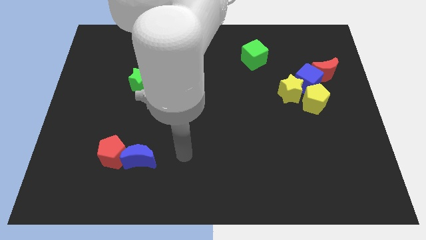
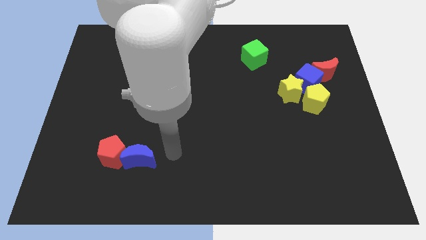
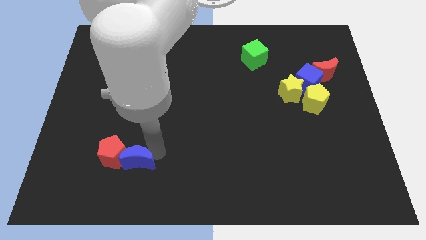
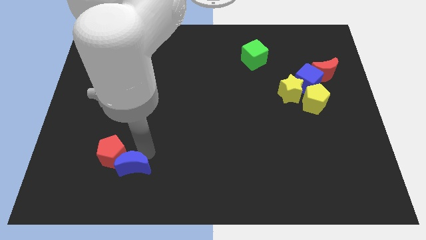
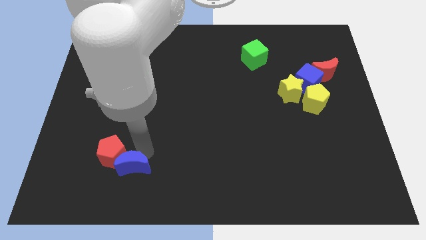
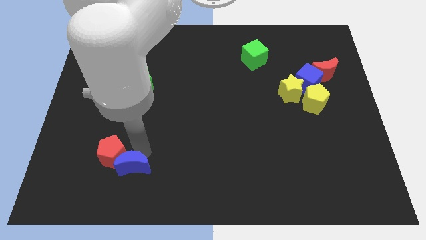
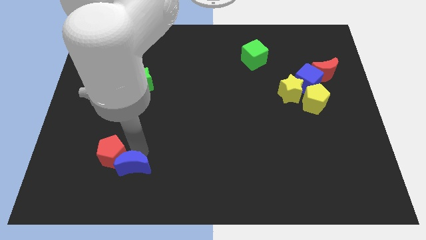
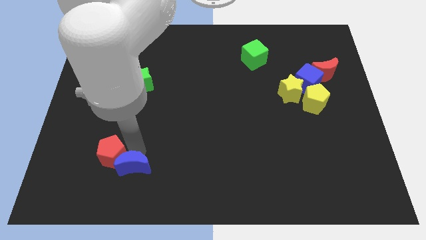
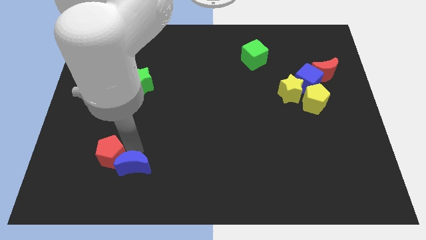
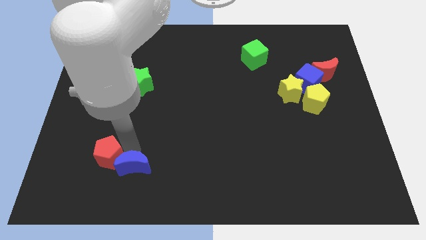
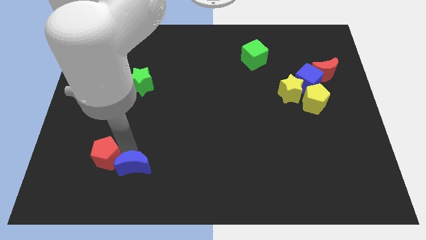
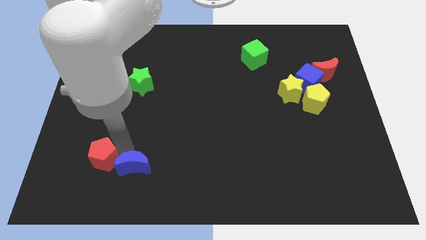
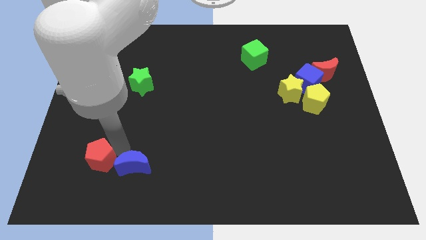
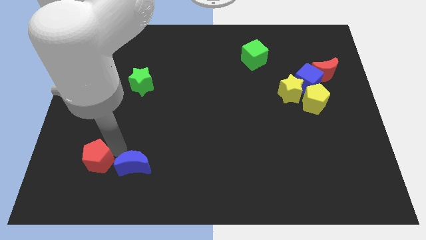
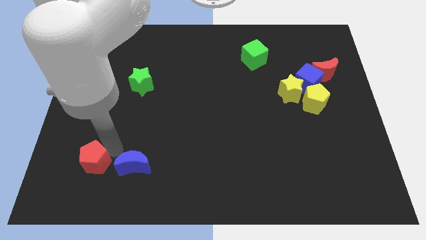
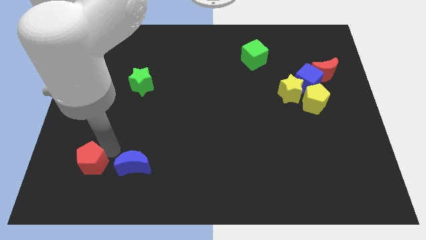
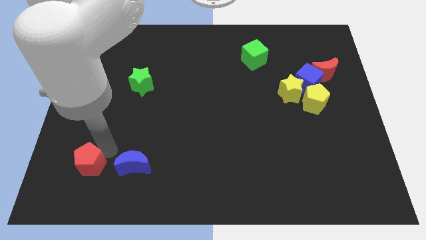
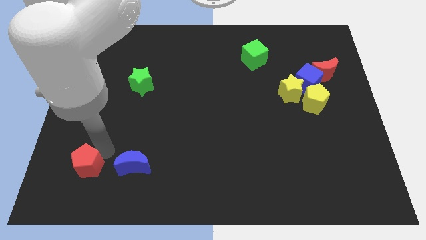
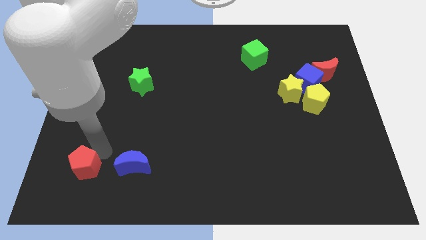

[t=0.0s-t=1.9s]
pull the red pentagon apart from the blue moon

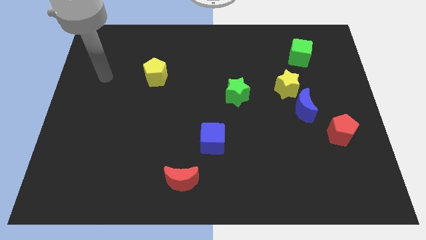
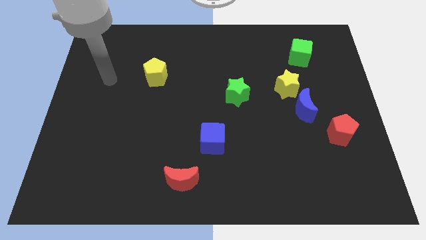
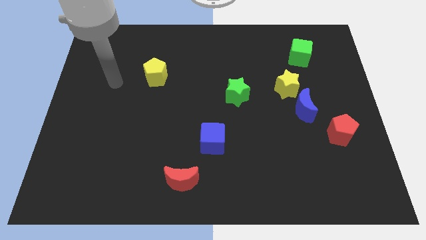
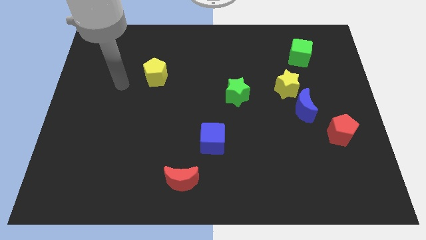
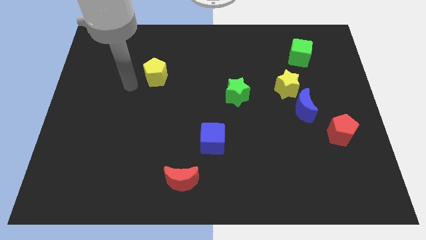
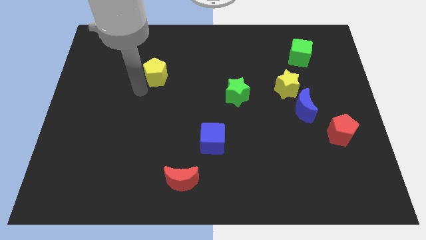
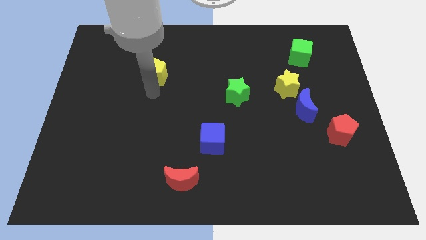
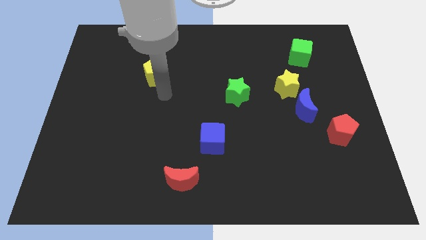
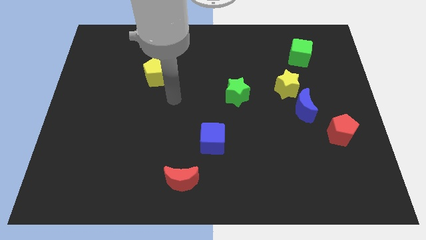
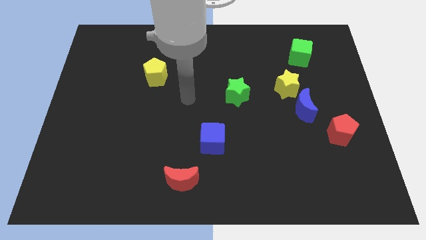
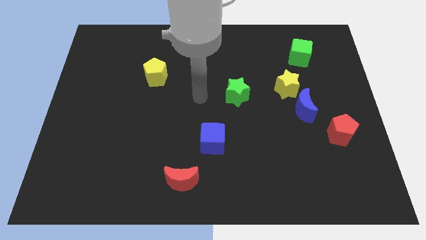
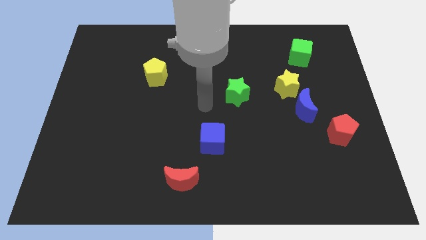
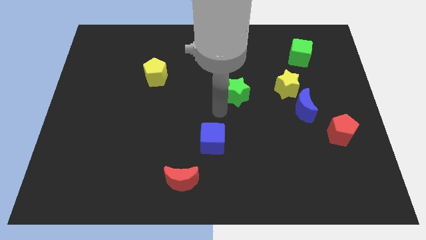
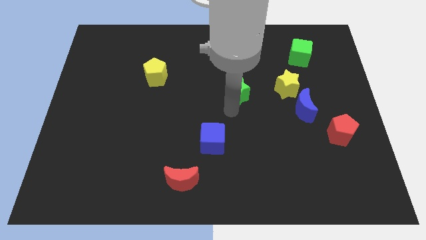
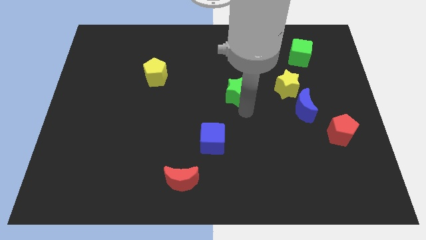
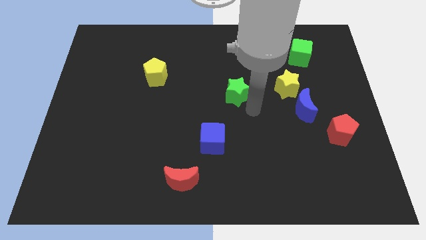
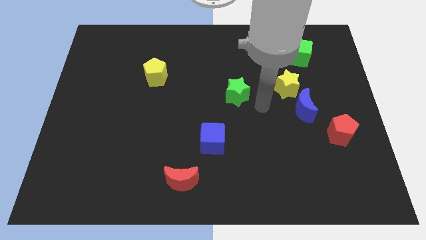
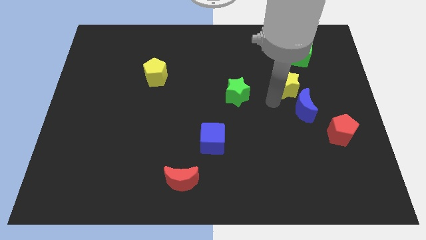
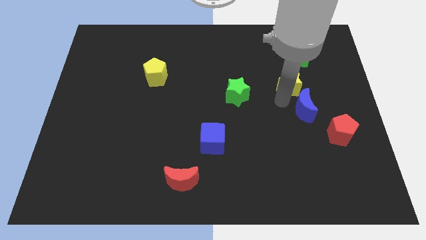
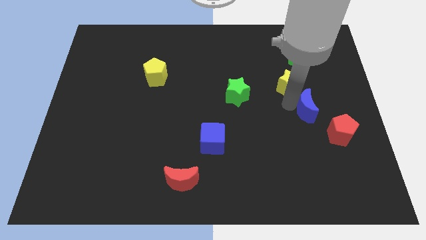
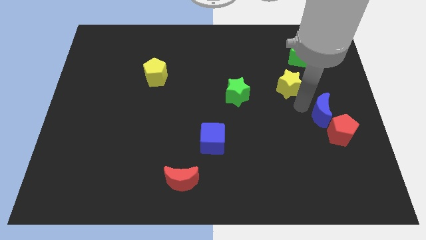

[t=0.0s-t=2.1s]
move the yellow star away from the blue moon

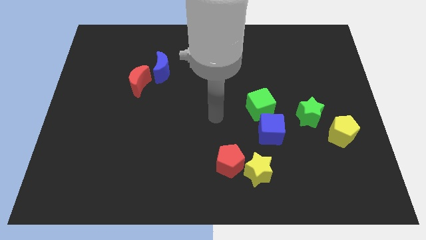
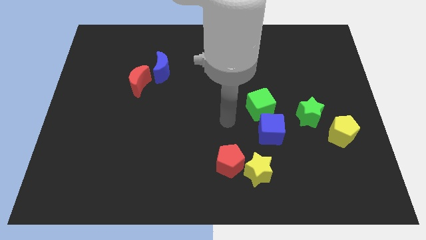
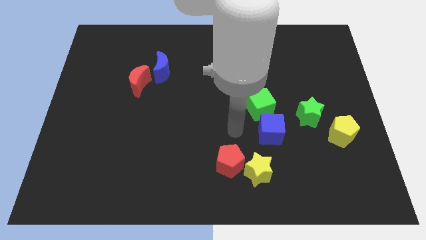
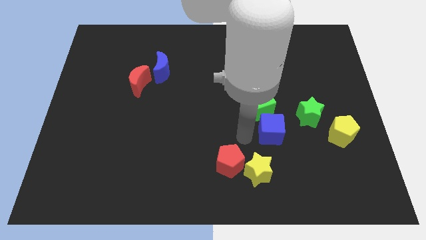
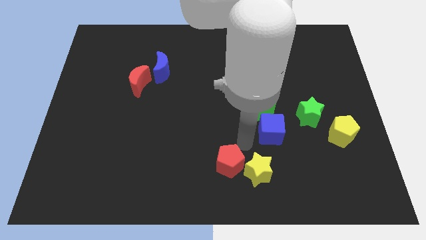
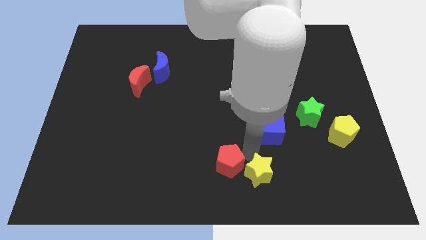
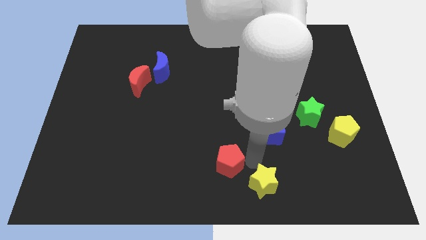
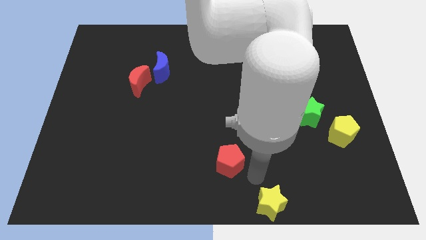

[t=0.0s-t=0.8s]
pull the red pentagon apart from the yellow star

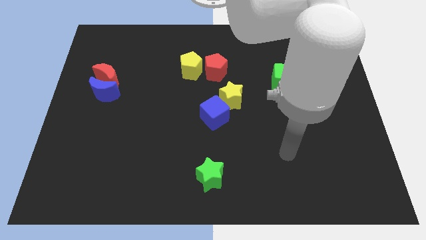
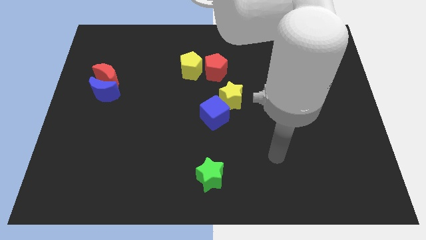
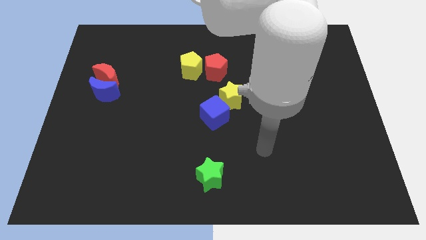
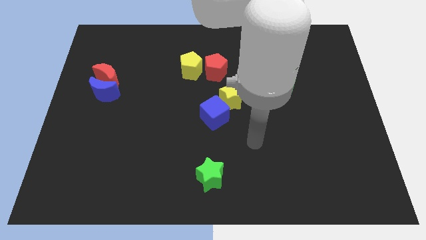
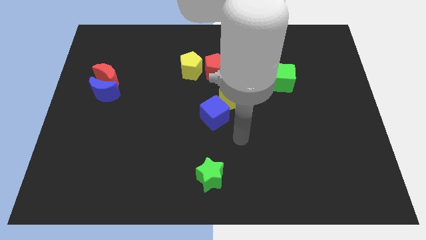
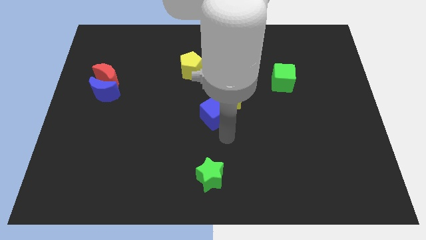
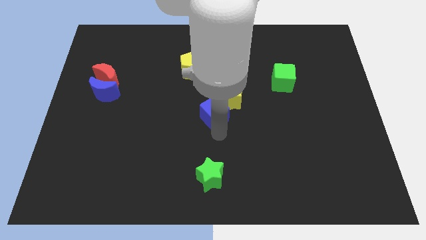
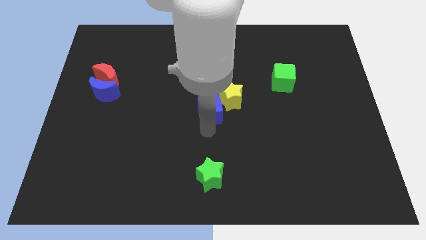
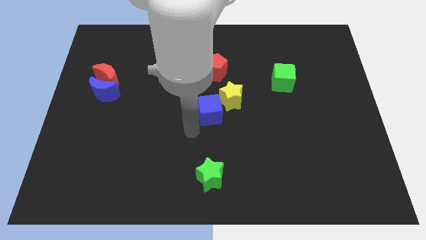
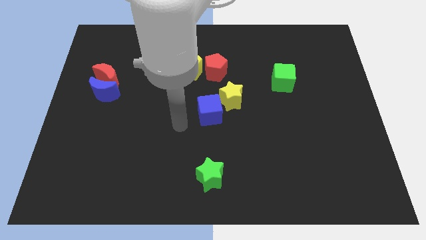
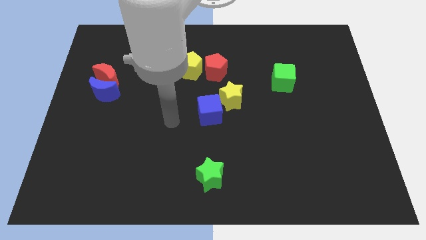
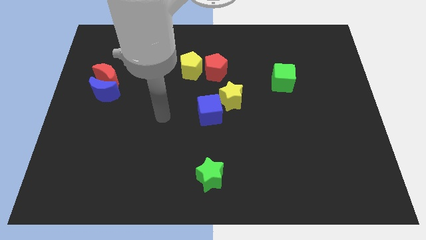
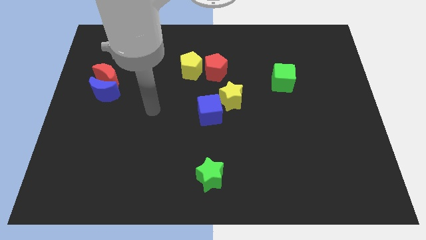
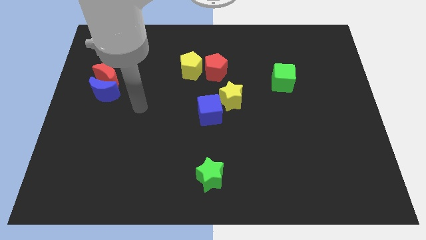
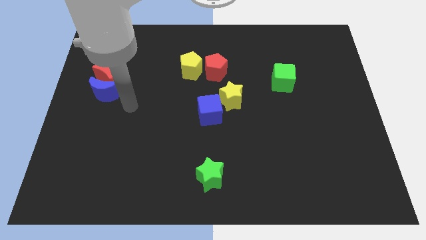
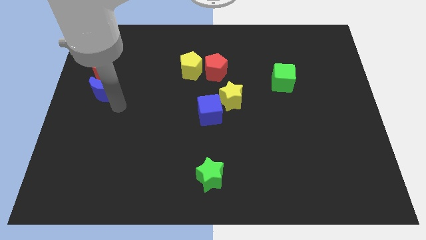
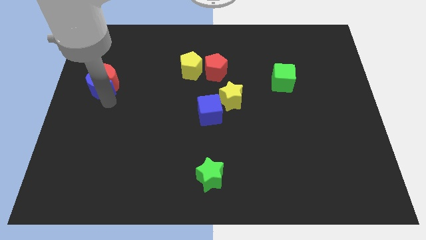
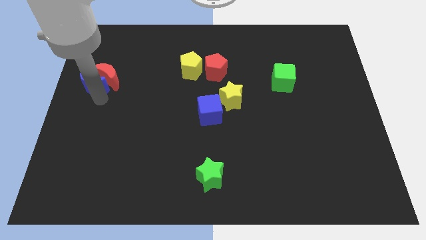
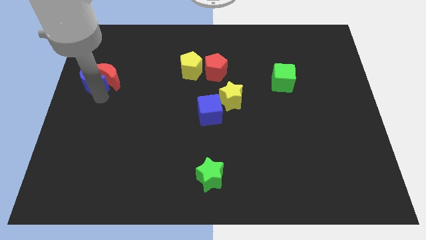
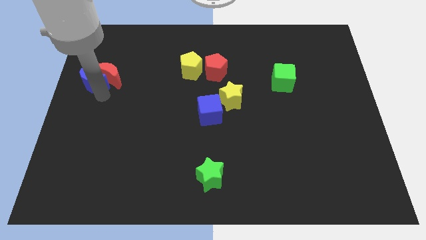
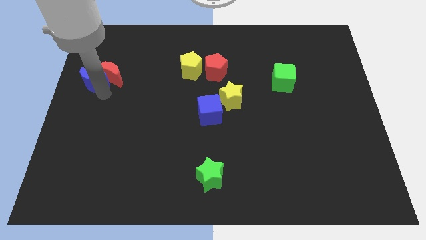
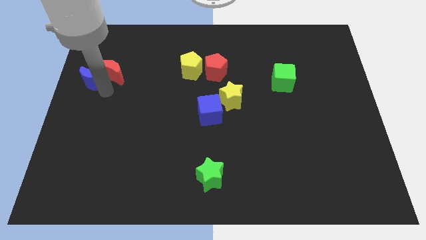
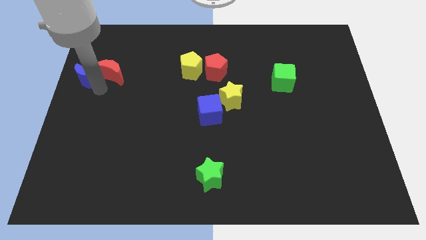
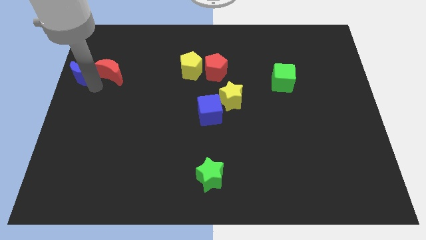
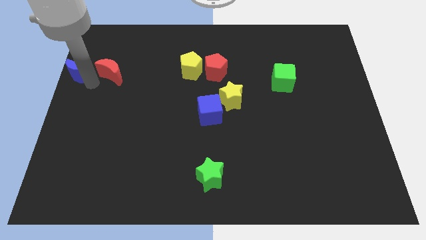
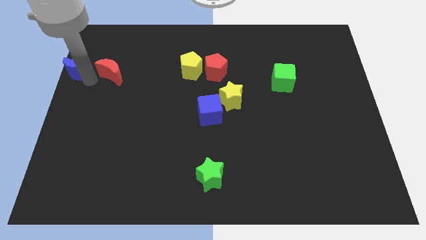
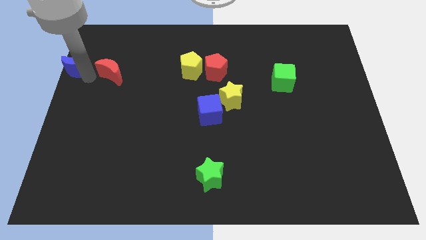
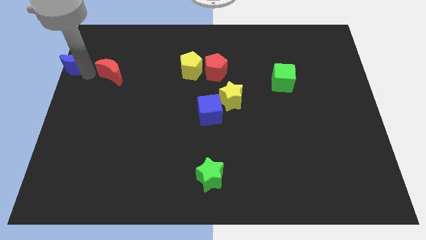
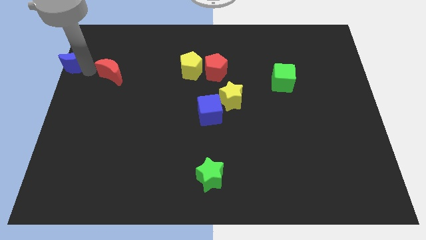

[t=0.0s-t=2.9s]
separate the red moon from the blue moon

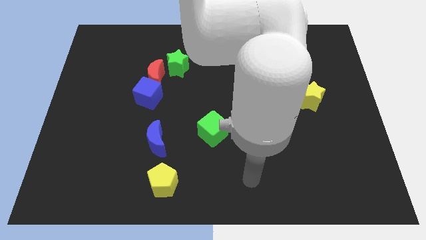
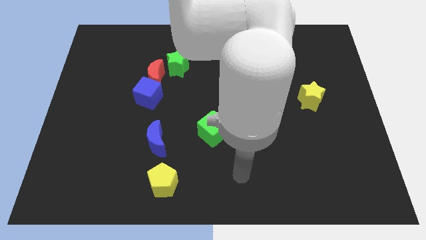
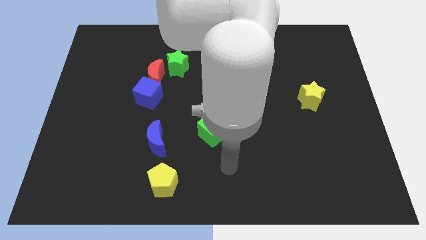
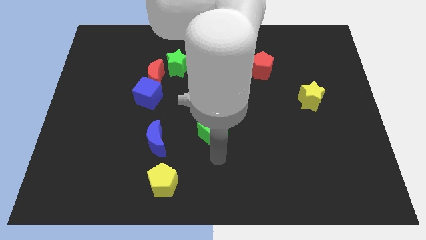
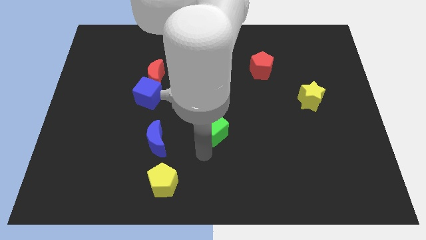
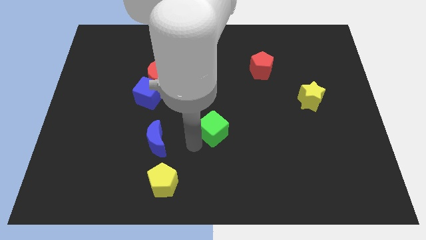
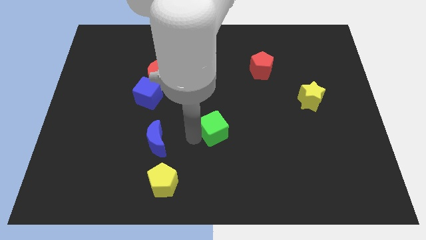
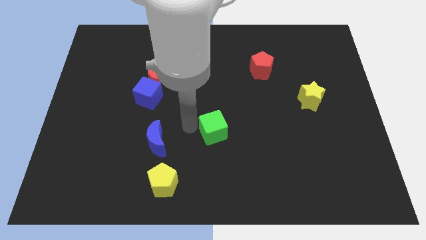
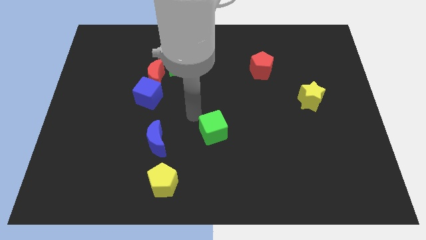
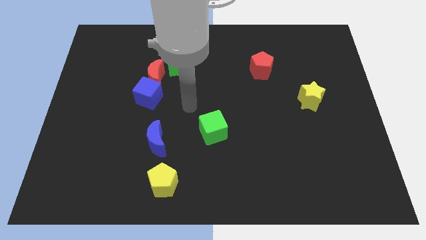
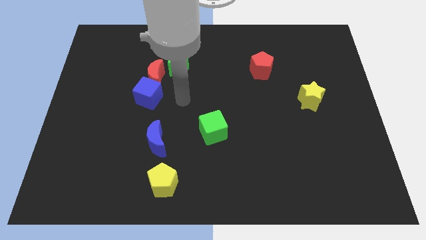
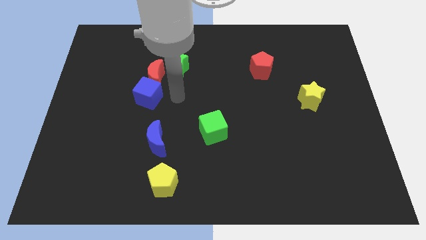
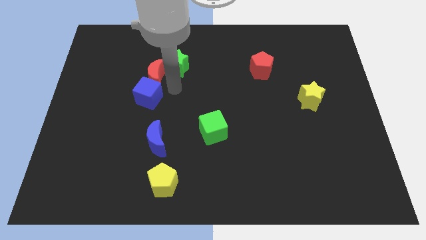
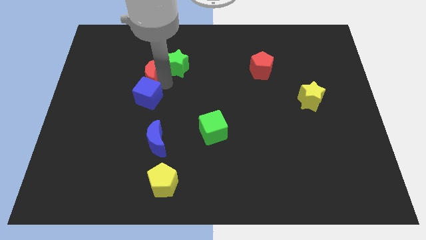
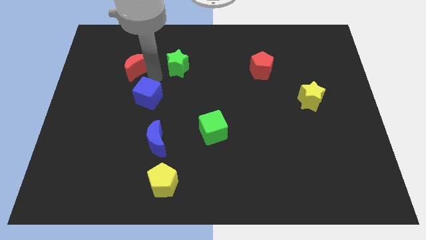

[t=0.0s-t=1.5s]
move the blue cube away from the red moon
